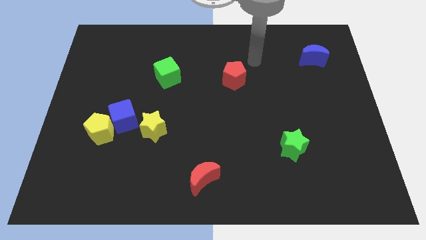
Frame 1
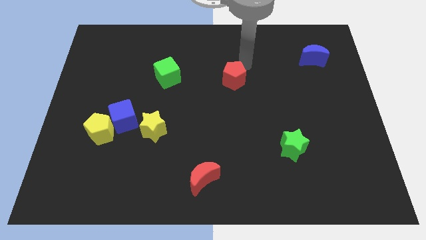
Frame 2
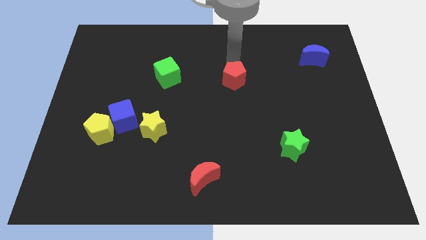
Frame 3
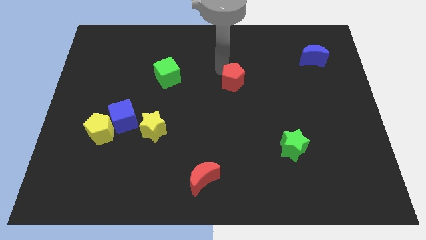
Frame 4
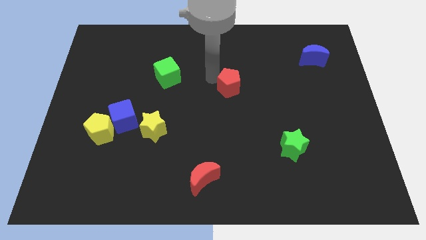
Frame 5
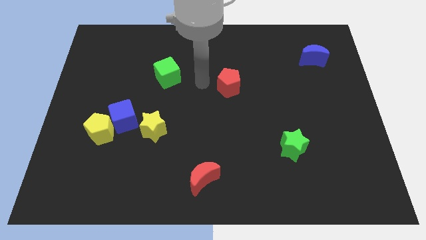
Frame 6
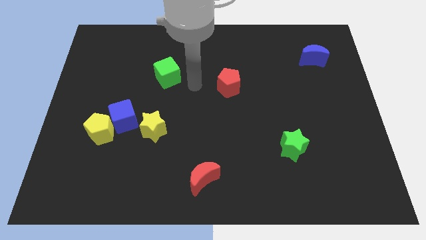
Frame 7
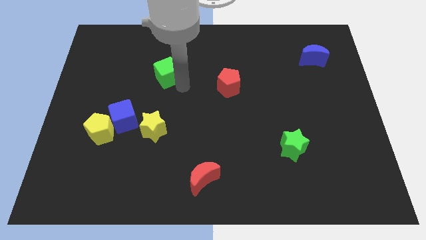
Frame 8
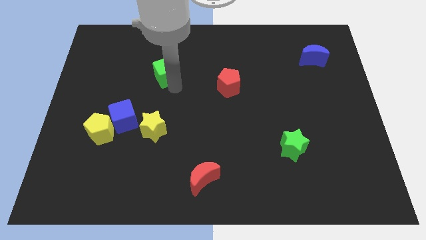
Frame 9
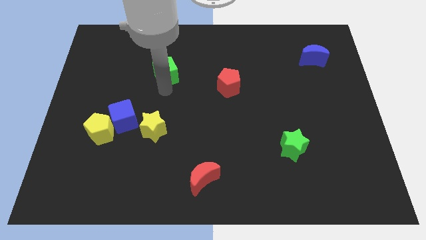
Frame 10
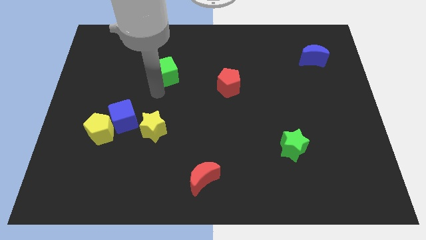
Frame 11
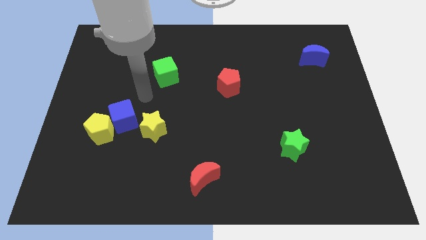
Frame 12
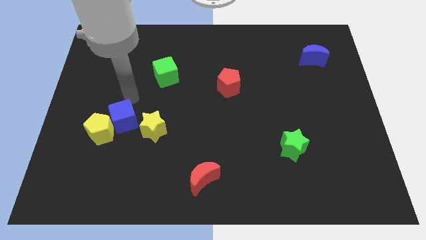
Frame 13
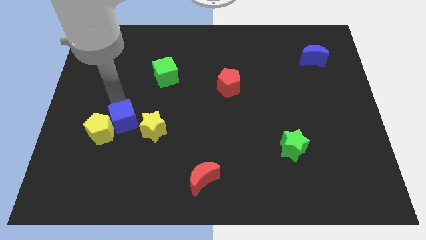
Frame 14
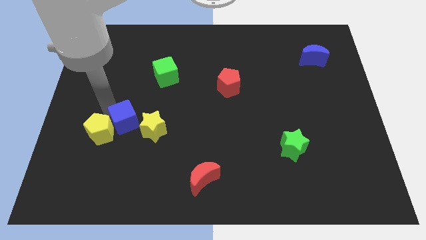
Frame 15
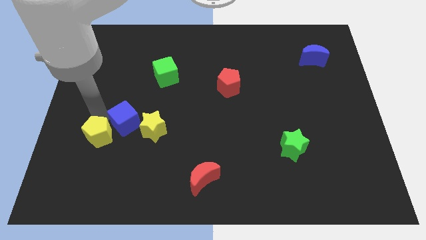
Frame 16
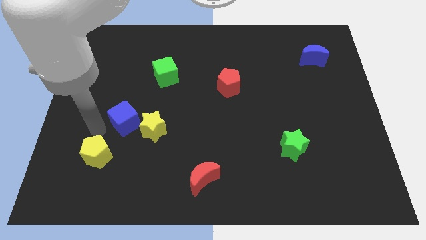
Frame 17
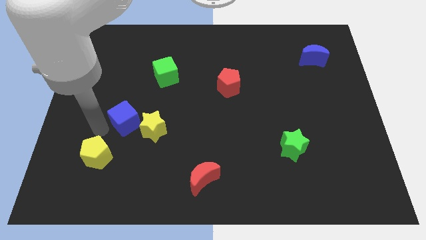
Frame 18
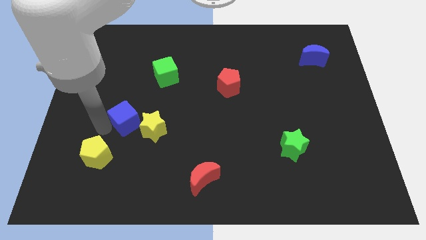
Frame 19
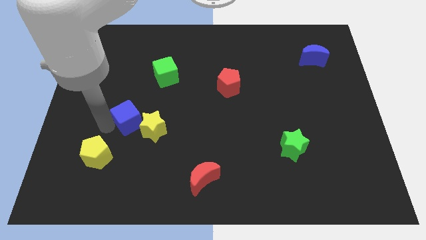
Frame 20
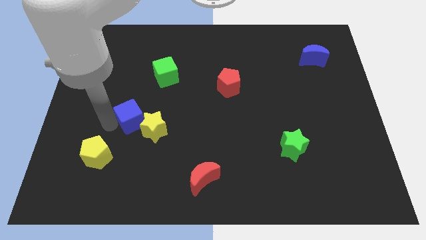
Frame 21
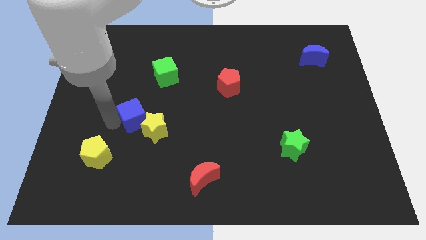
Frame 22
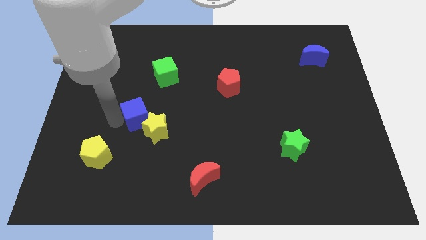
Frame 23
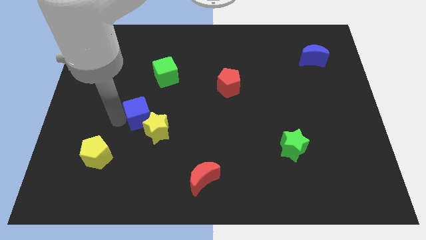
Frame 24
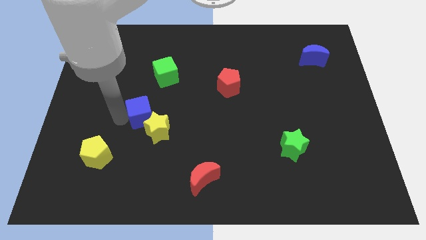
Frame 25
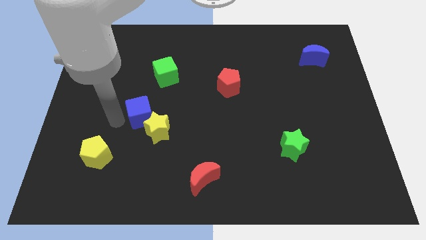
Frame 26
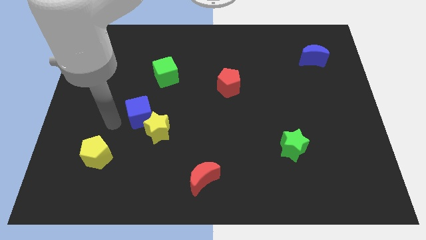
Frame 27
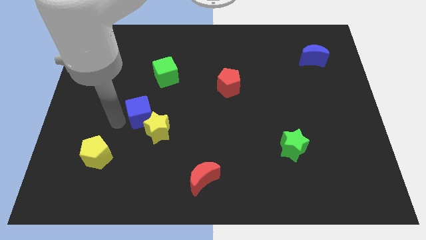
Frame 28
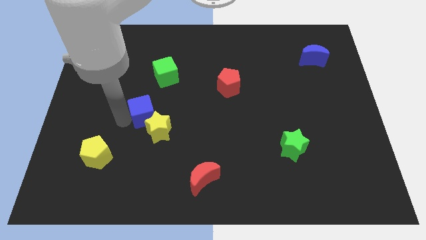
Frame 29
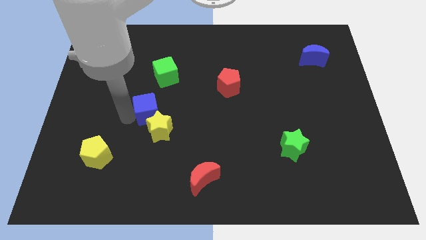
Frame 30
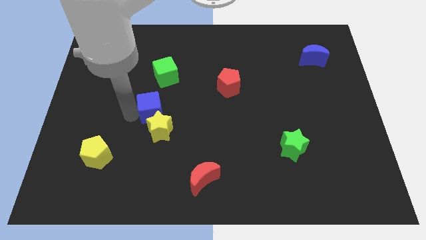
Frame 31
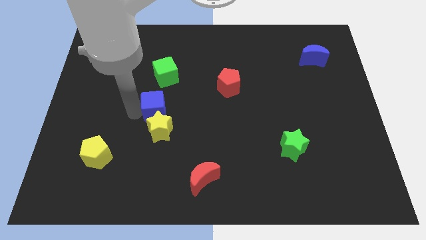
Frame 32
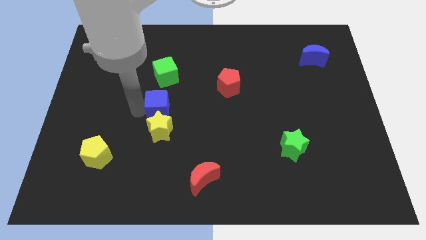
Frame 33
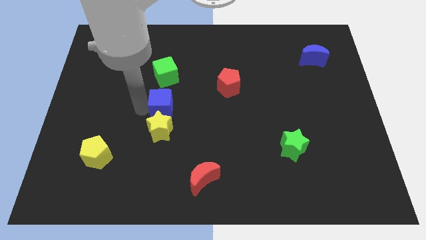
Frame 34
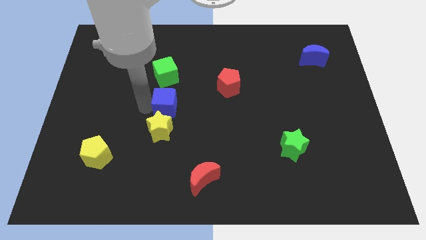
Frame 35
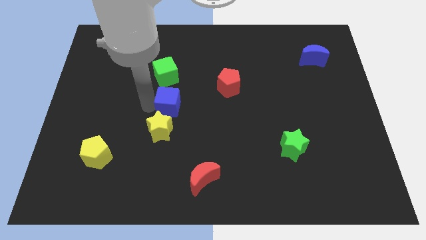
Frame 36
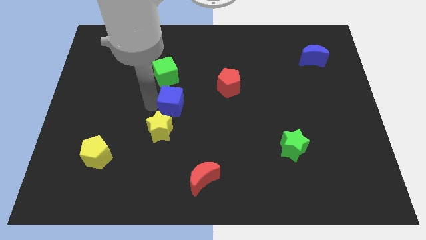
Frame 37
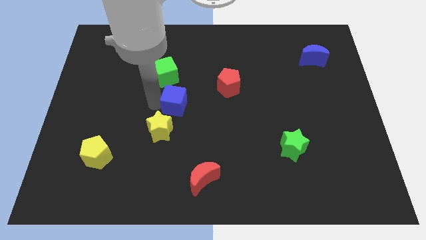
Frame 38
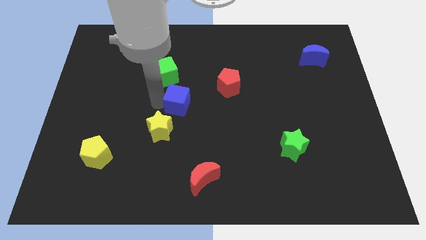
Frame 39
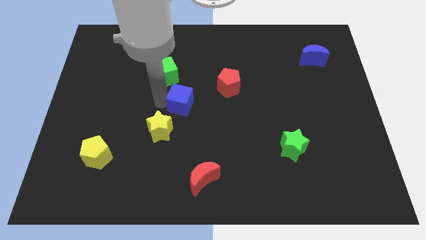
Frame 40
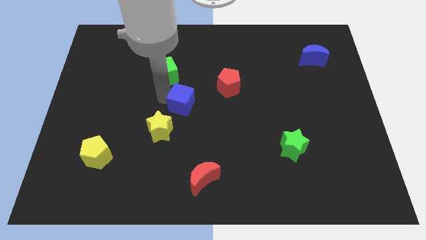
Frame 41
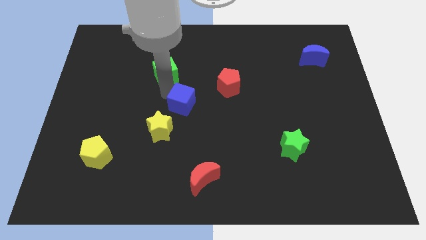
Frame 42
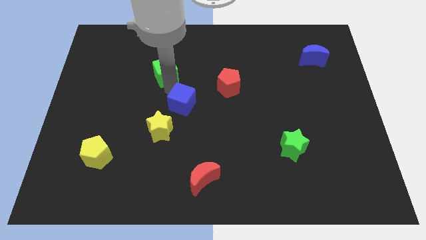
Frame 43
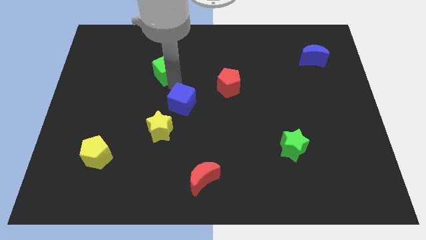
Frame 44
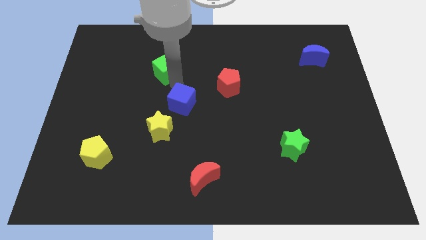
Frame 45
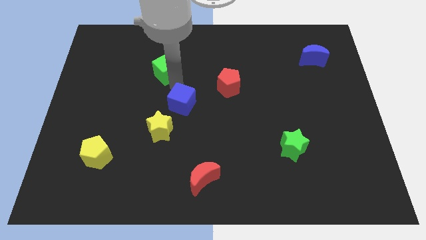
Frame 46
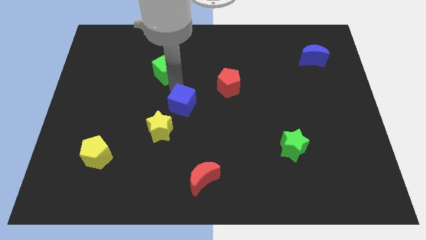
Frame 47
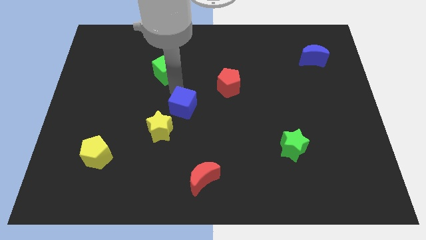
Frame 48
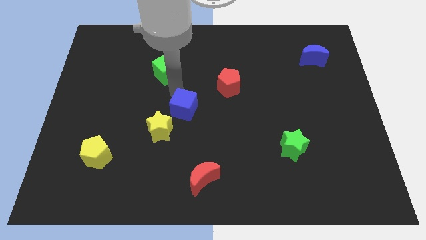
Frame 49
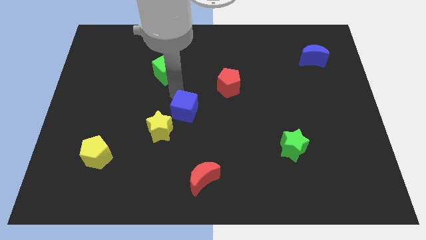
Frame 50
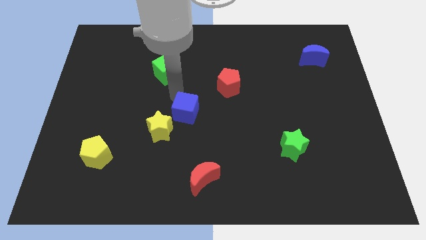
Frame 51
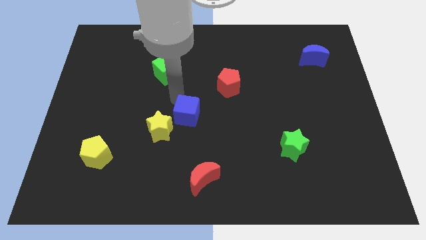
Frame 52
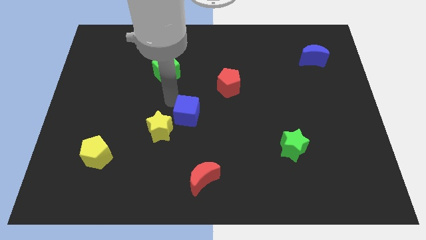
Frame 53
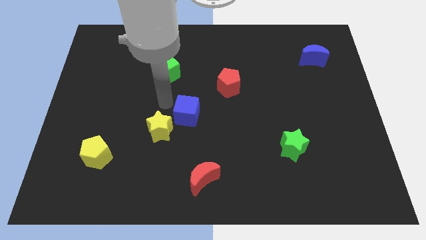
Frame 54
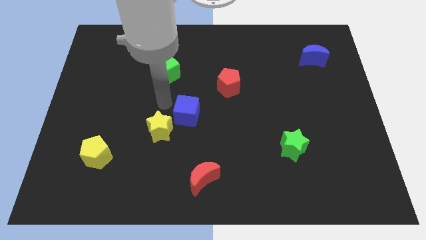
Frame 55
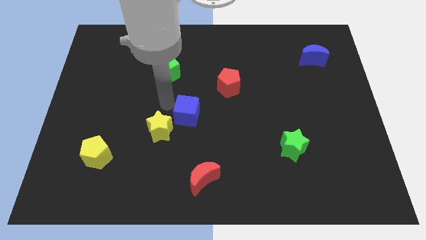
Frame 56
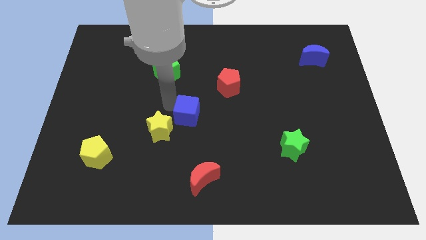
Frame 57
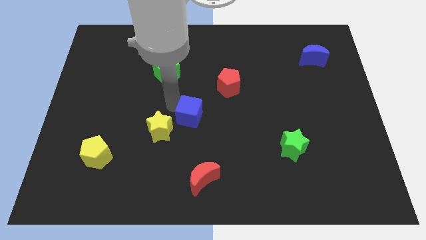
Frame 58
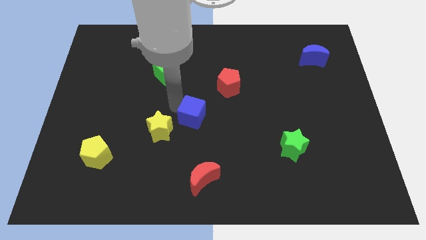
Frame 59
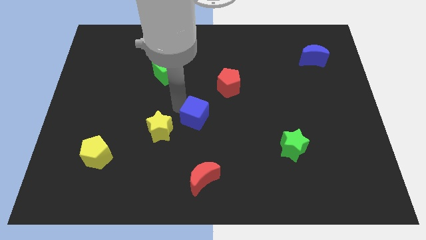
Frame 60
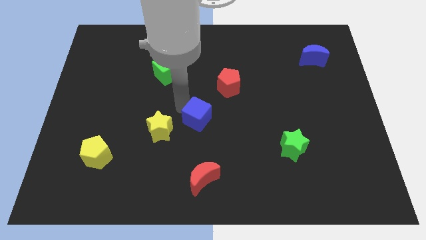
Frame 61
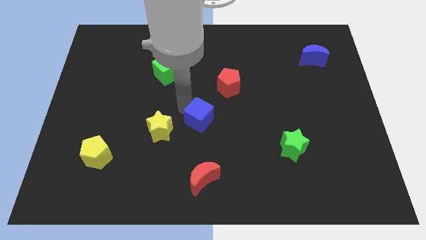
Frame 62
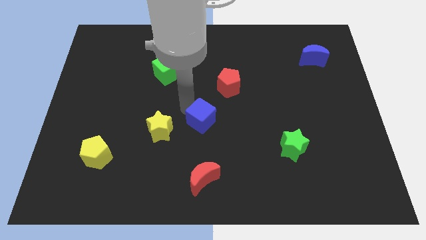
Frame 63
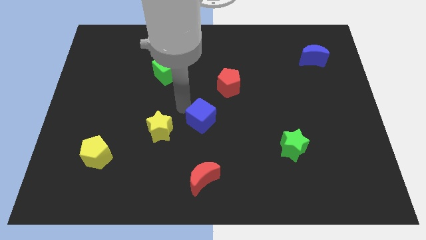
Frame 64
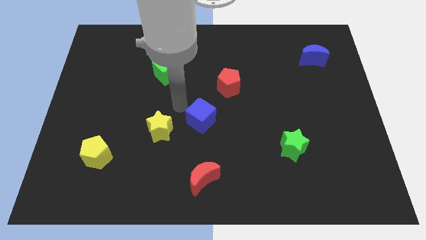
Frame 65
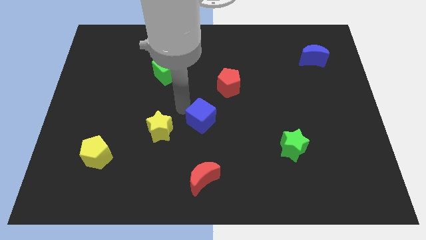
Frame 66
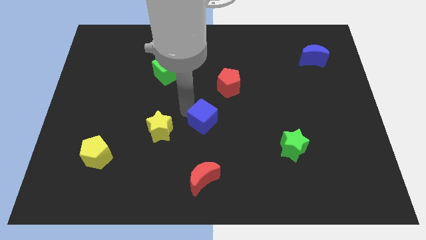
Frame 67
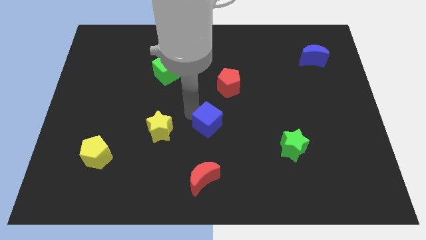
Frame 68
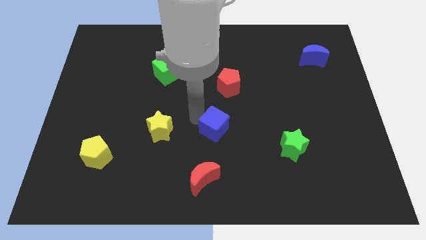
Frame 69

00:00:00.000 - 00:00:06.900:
move the blue cube to the right

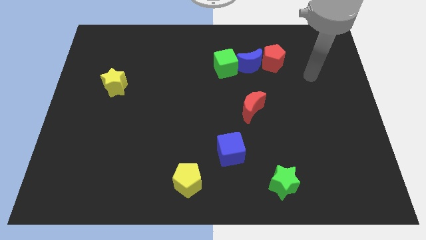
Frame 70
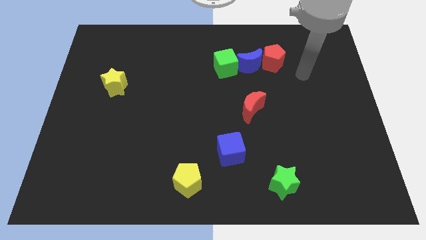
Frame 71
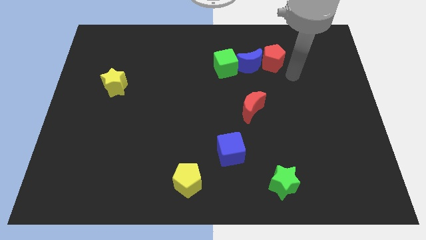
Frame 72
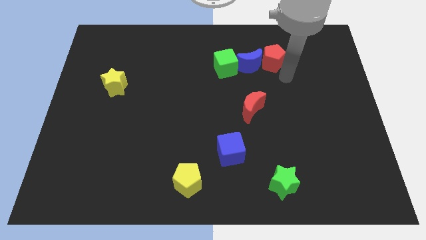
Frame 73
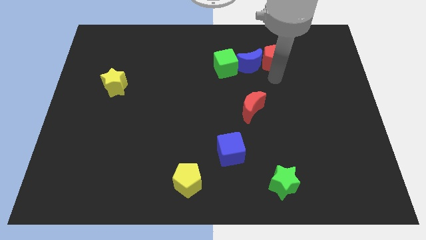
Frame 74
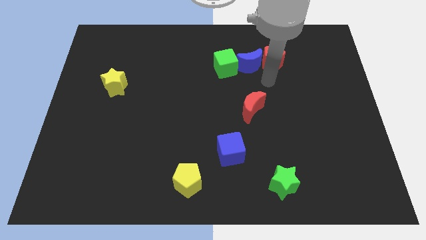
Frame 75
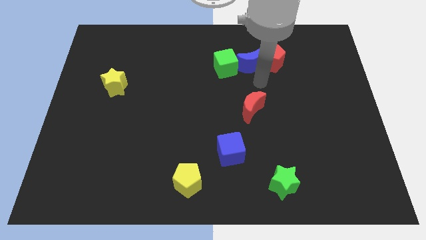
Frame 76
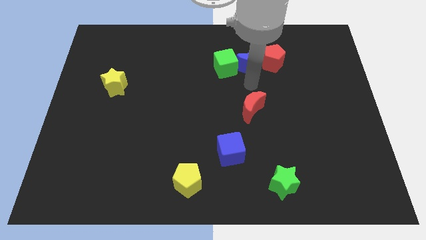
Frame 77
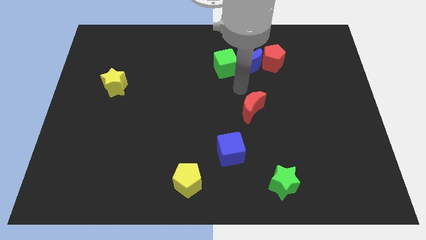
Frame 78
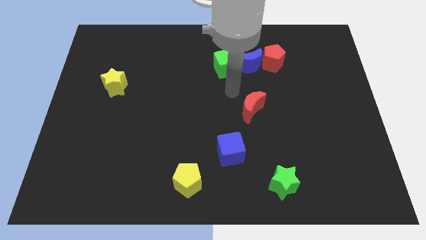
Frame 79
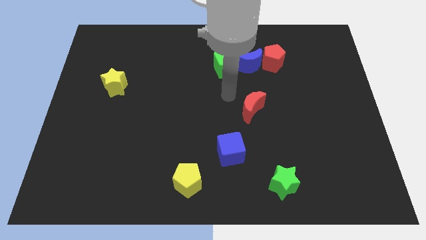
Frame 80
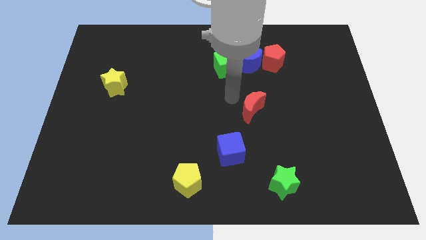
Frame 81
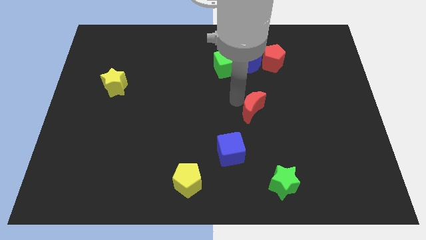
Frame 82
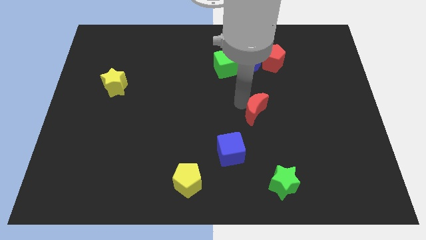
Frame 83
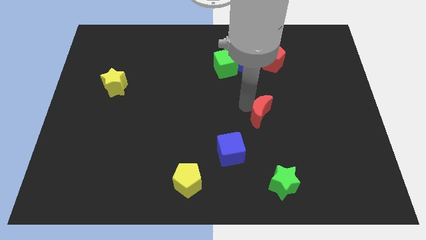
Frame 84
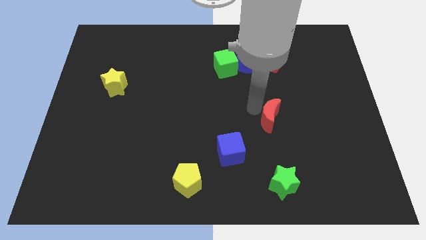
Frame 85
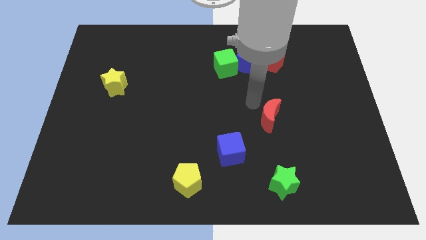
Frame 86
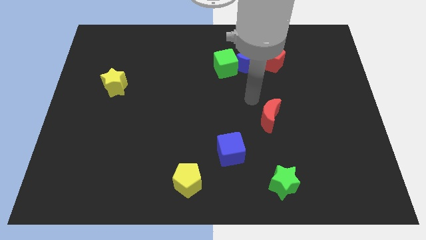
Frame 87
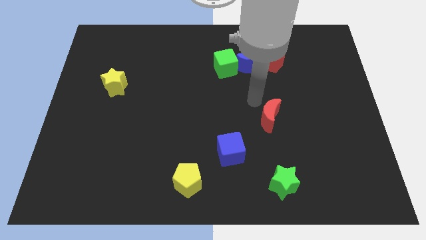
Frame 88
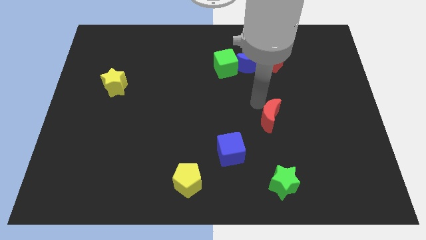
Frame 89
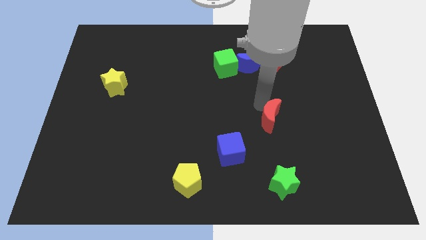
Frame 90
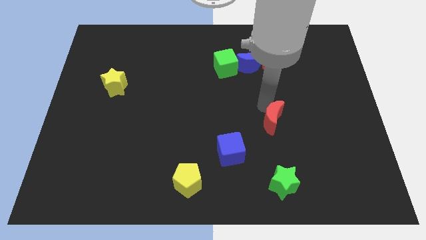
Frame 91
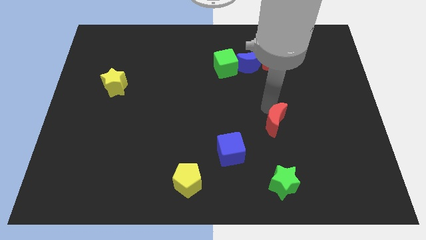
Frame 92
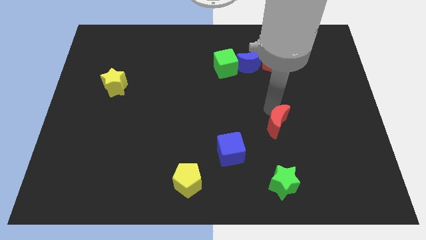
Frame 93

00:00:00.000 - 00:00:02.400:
push the red moon slightly down and then to the right
